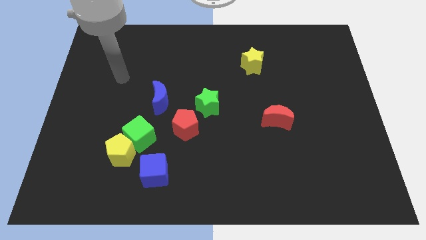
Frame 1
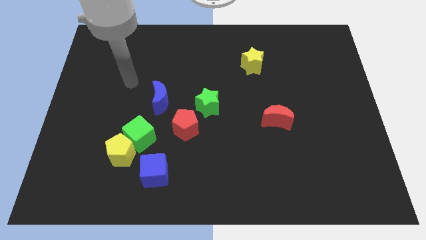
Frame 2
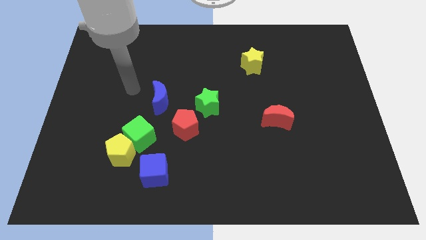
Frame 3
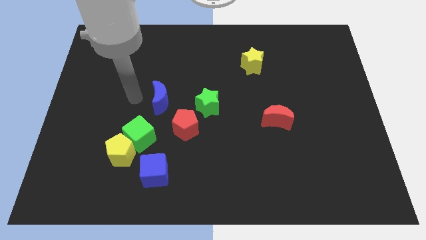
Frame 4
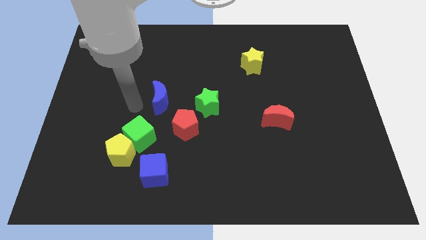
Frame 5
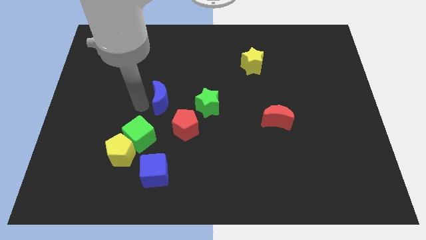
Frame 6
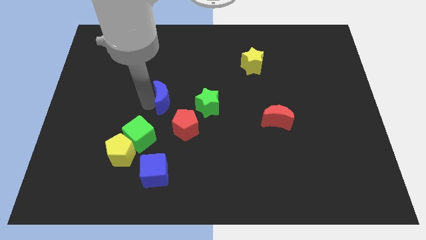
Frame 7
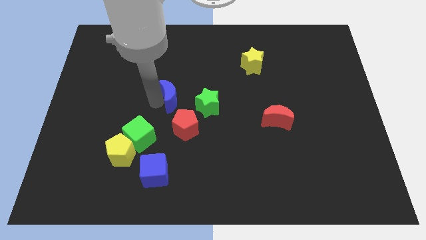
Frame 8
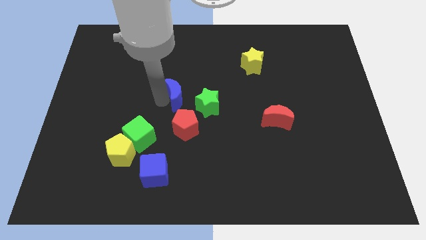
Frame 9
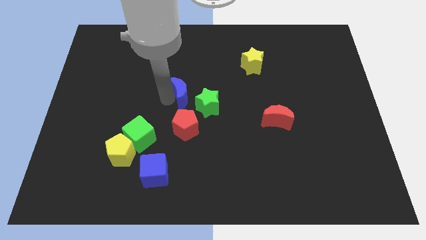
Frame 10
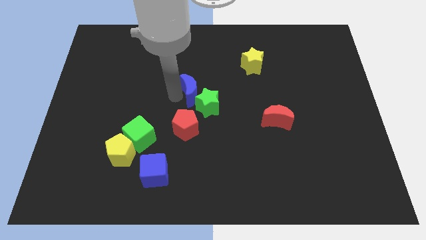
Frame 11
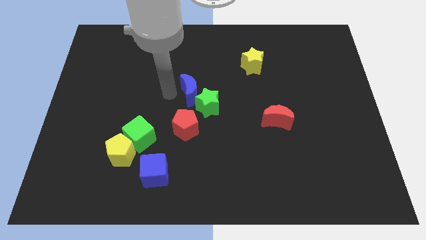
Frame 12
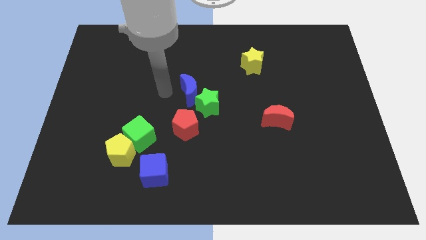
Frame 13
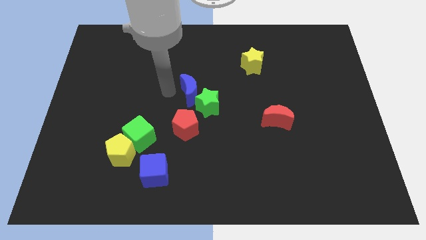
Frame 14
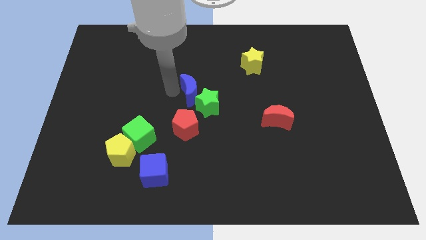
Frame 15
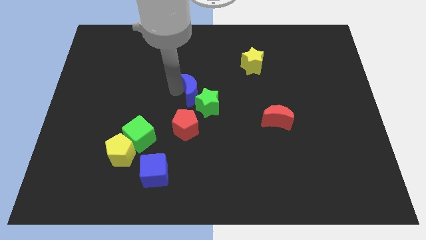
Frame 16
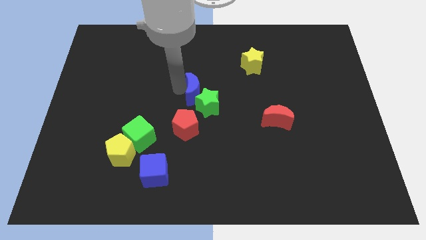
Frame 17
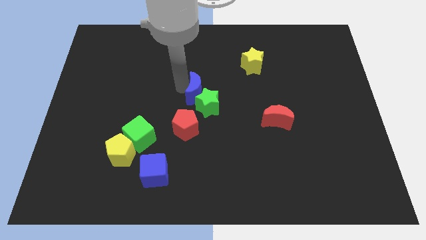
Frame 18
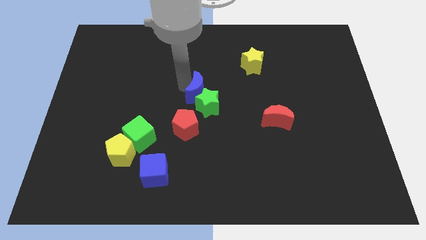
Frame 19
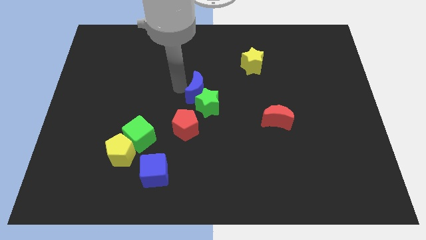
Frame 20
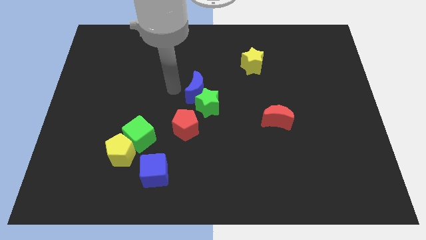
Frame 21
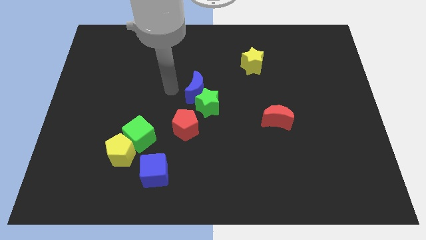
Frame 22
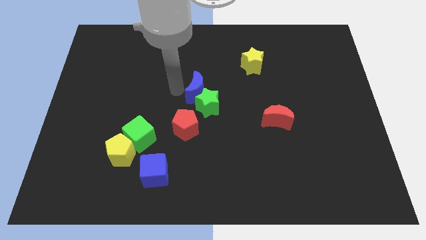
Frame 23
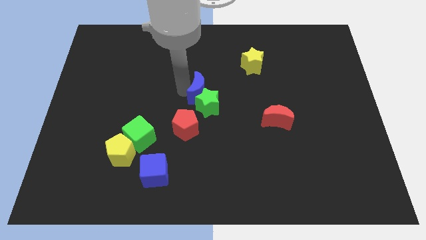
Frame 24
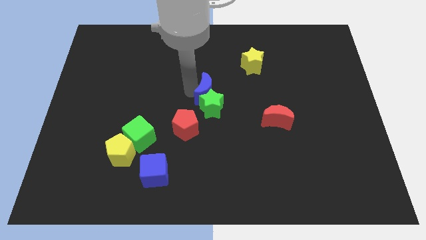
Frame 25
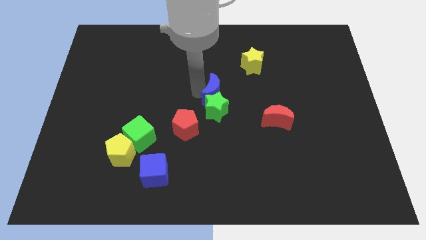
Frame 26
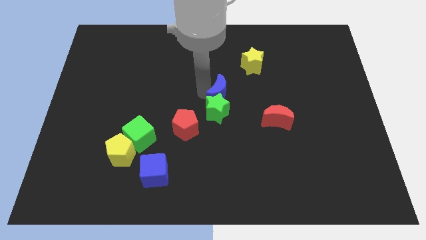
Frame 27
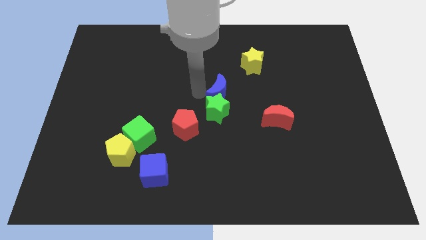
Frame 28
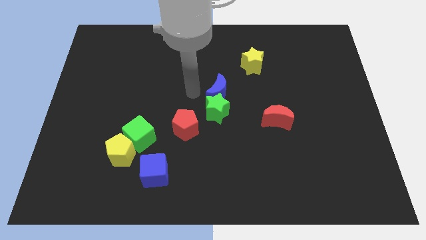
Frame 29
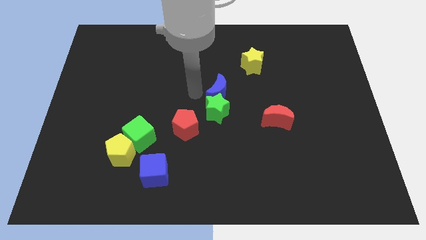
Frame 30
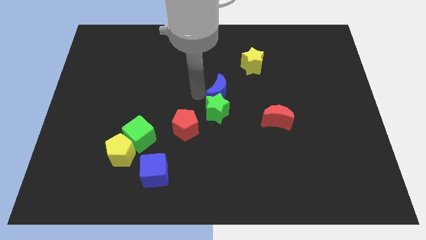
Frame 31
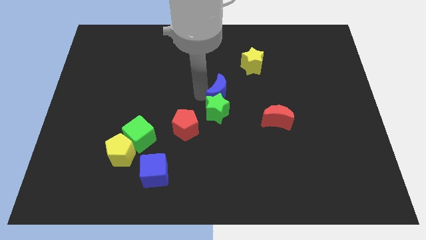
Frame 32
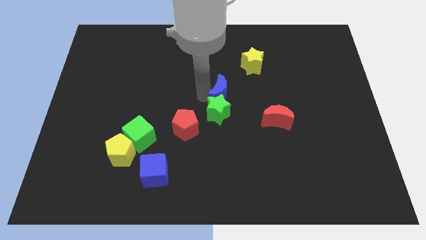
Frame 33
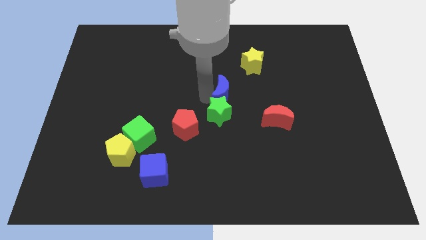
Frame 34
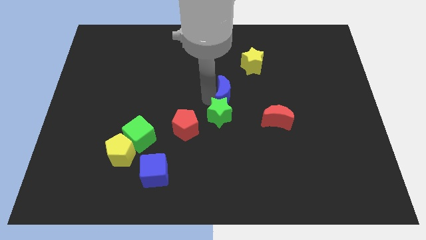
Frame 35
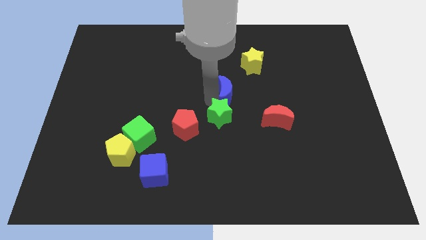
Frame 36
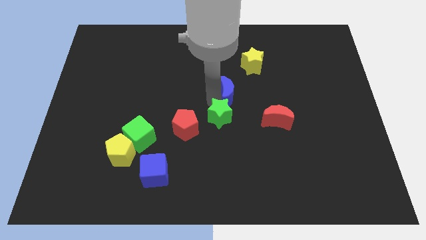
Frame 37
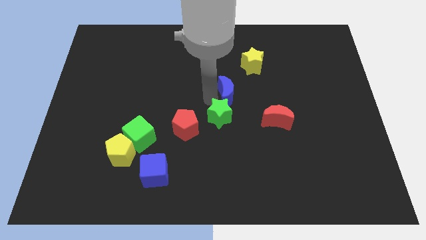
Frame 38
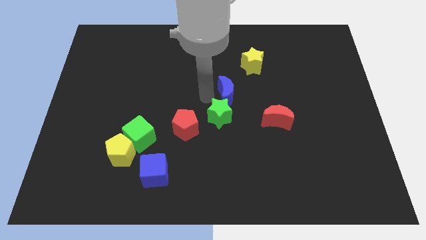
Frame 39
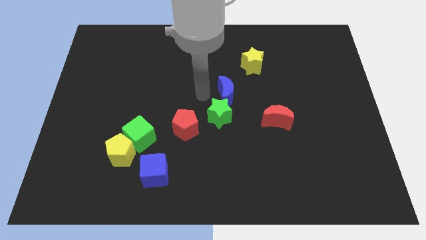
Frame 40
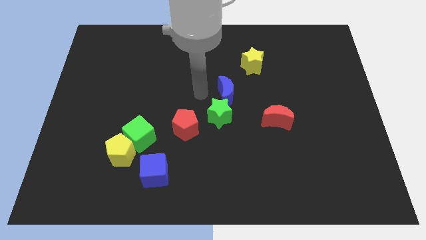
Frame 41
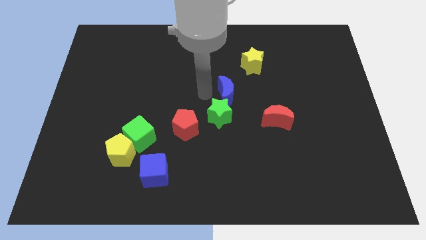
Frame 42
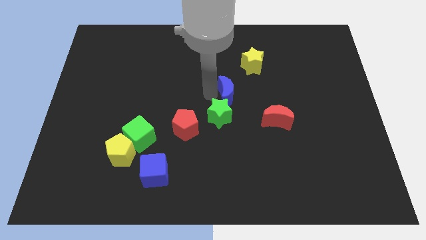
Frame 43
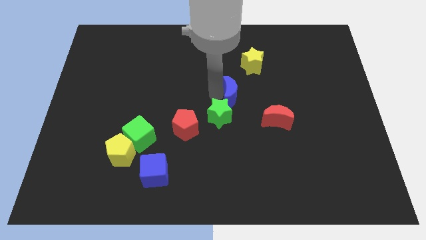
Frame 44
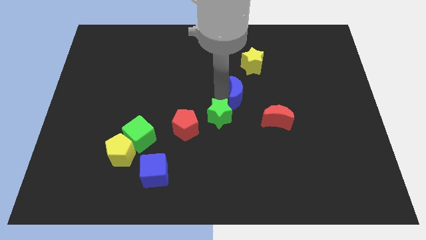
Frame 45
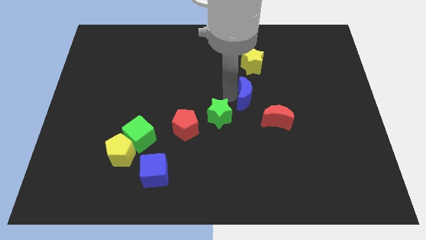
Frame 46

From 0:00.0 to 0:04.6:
push the blue moon right

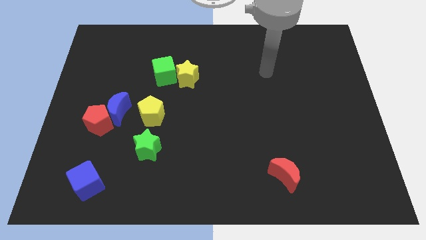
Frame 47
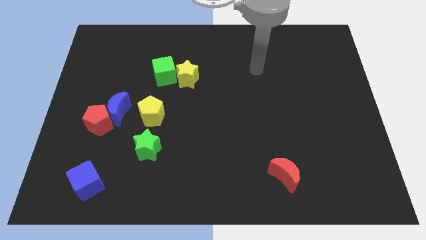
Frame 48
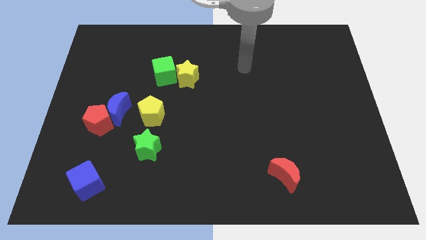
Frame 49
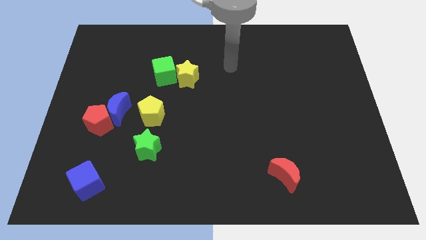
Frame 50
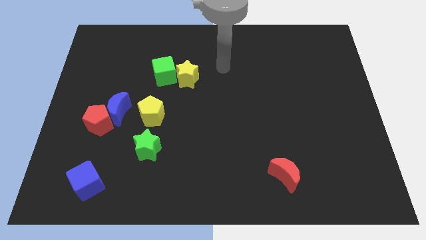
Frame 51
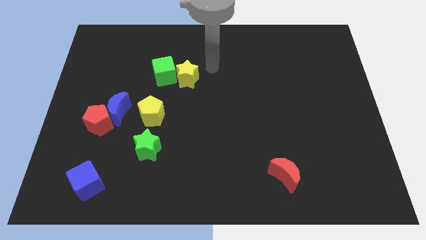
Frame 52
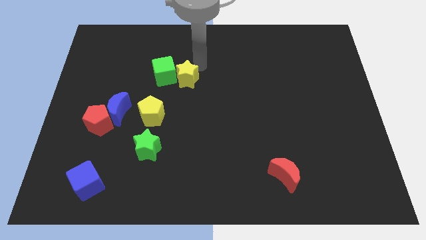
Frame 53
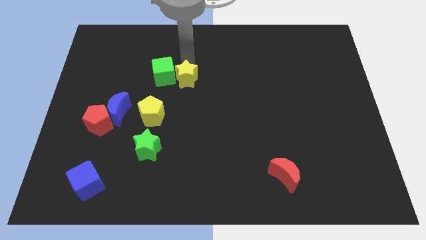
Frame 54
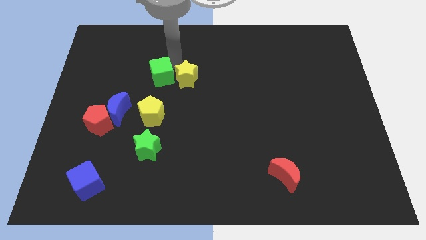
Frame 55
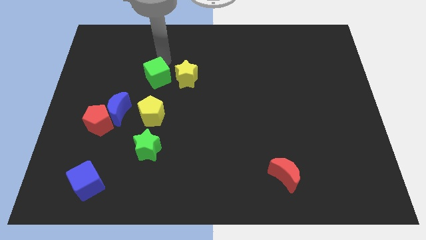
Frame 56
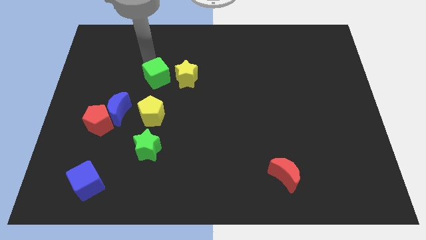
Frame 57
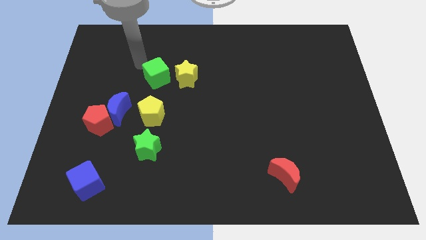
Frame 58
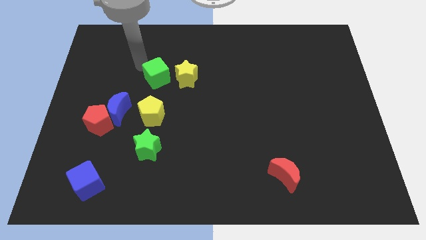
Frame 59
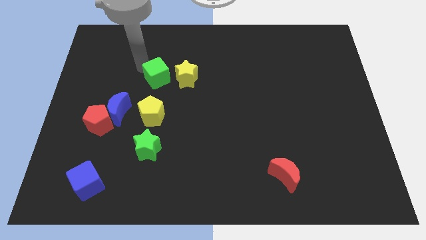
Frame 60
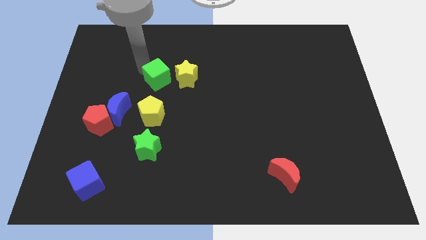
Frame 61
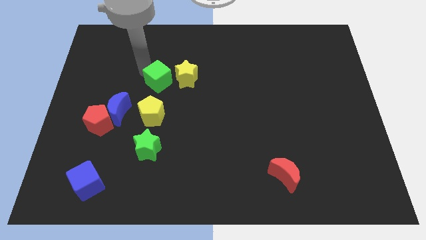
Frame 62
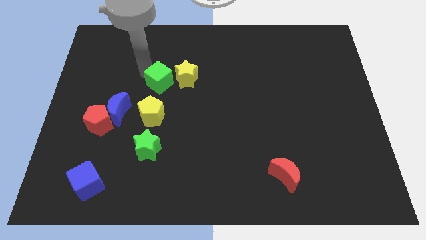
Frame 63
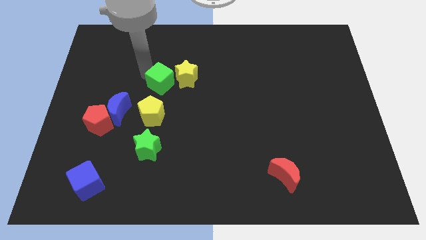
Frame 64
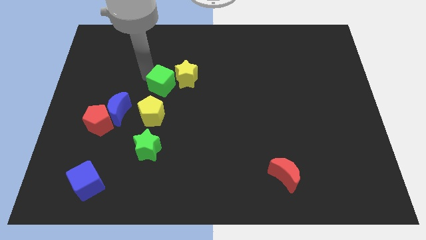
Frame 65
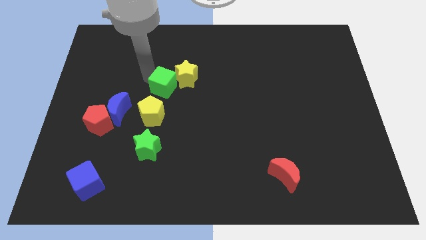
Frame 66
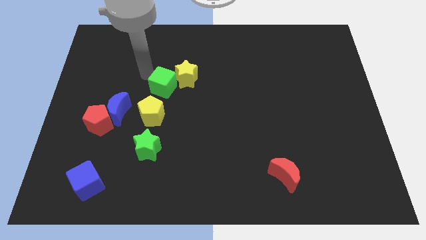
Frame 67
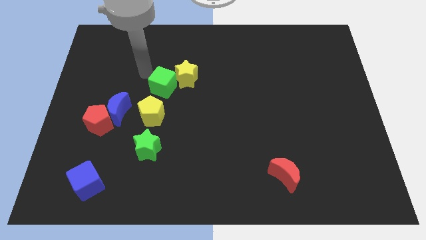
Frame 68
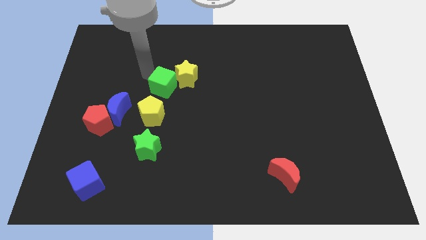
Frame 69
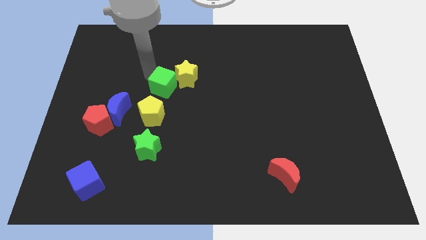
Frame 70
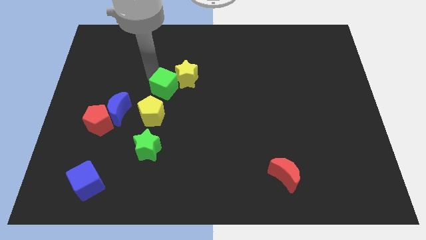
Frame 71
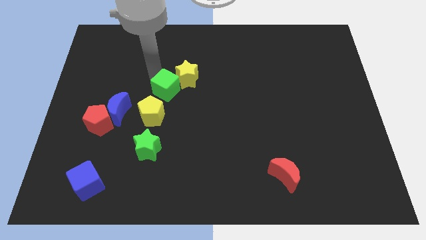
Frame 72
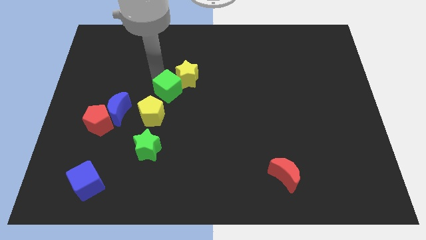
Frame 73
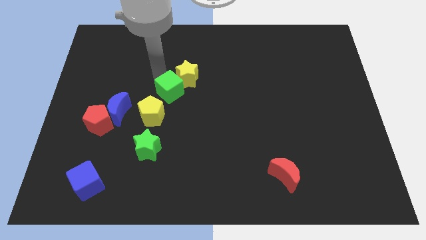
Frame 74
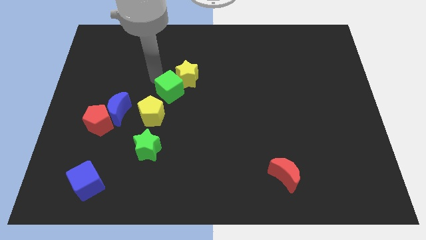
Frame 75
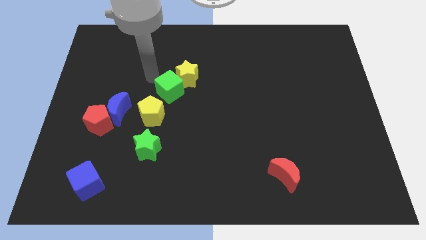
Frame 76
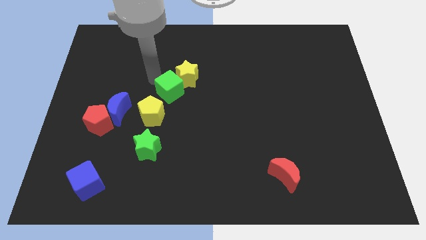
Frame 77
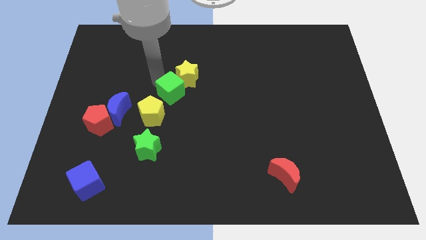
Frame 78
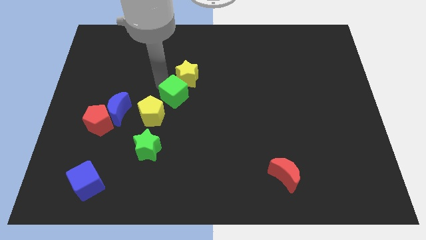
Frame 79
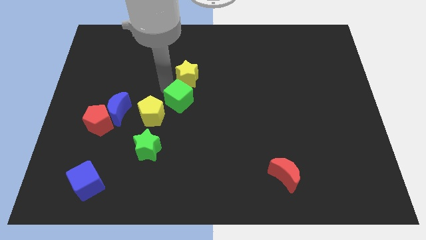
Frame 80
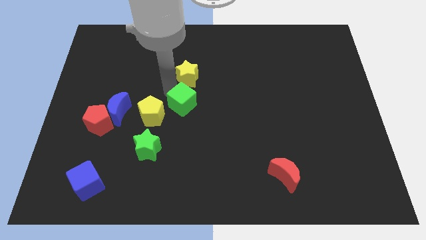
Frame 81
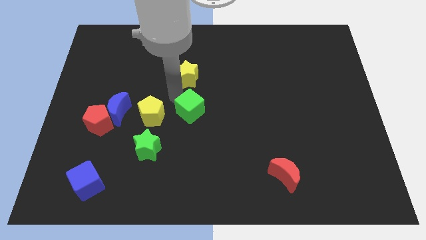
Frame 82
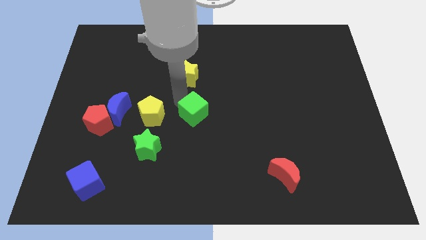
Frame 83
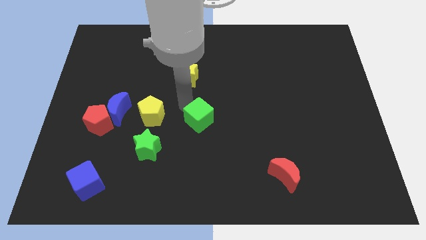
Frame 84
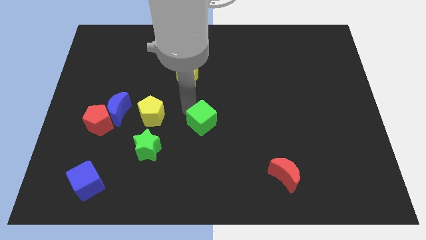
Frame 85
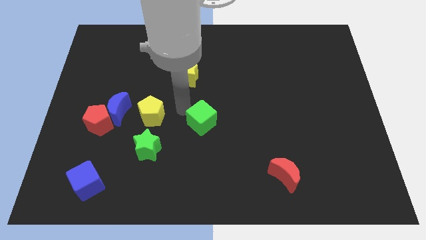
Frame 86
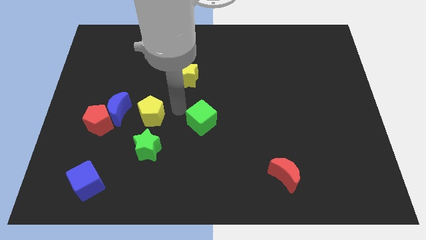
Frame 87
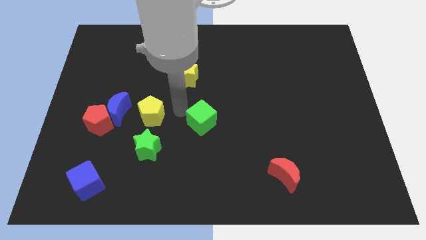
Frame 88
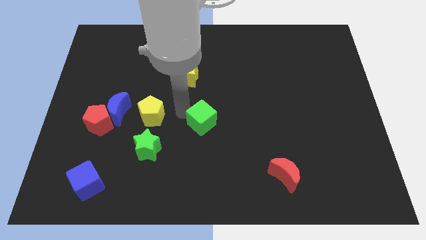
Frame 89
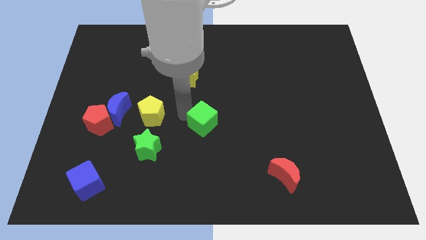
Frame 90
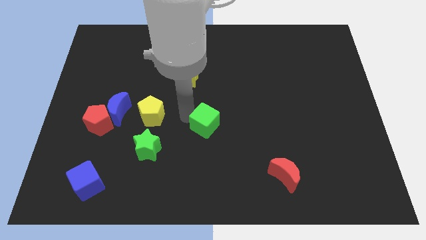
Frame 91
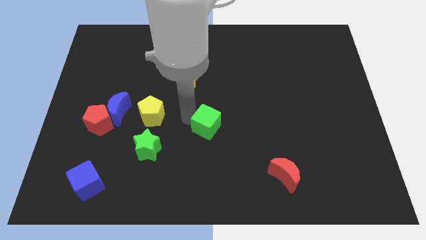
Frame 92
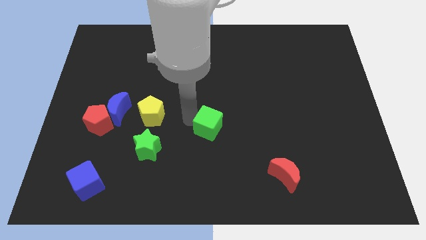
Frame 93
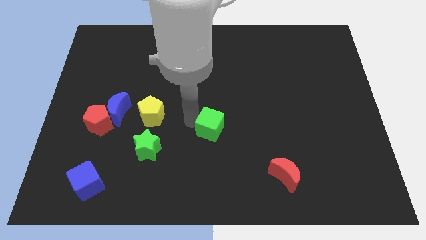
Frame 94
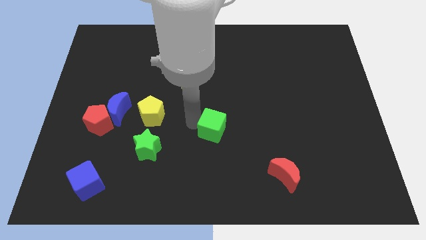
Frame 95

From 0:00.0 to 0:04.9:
move the green cube downwards and to the right diagonally
